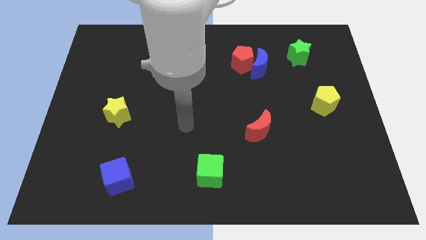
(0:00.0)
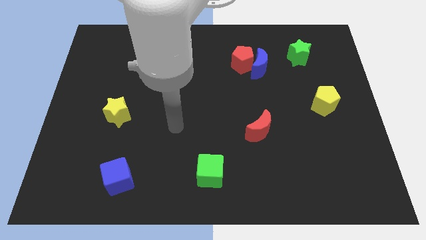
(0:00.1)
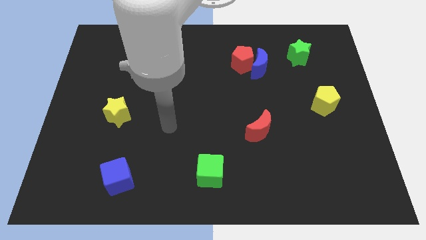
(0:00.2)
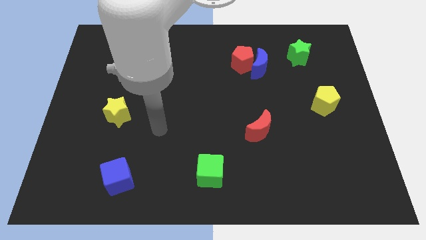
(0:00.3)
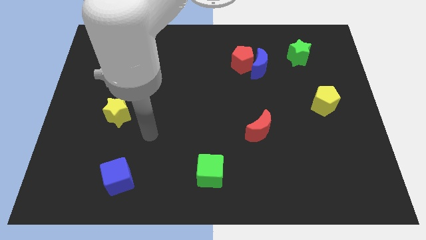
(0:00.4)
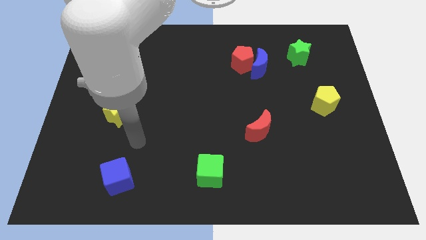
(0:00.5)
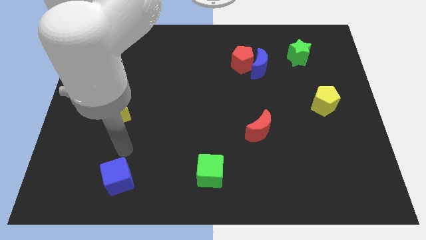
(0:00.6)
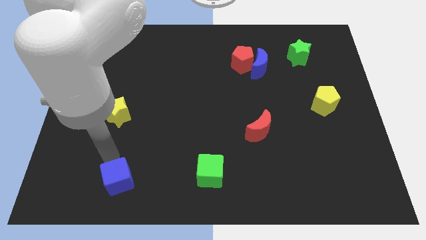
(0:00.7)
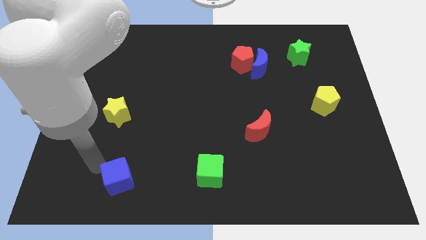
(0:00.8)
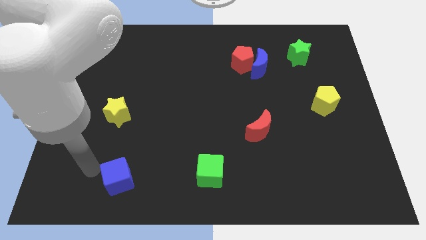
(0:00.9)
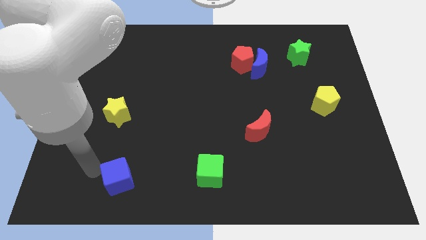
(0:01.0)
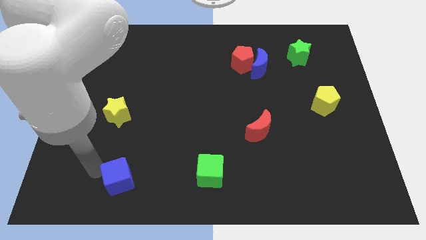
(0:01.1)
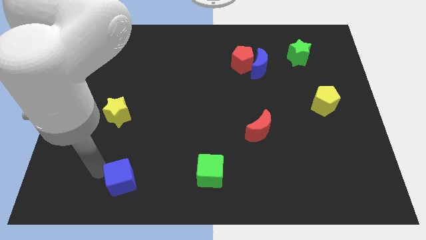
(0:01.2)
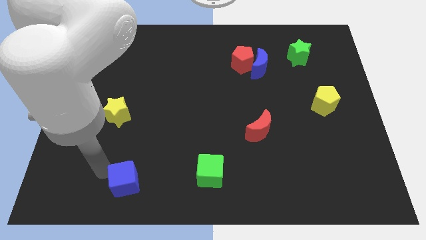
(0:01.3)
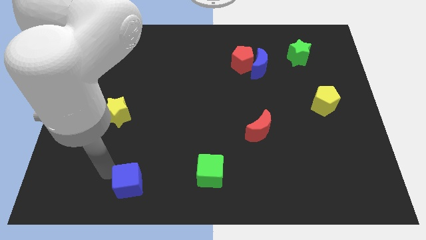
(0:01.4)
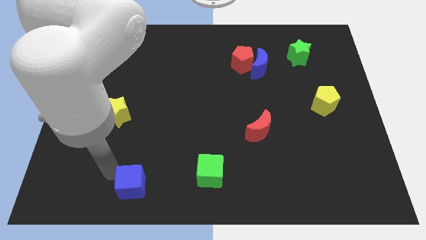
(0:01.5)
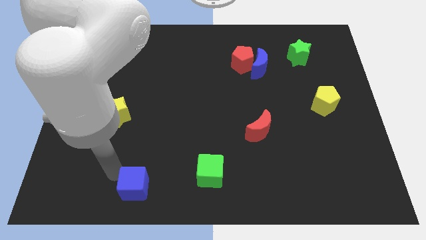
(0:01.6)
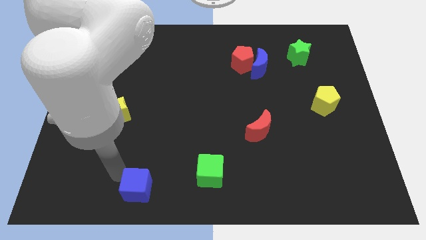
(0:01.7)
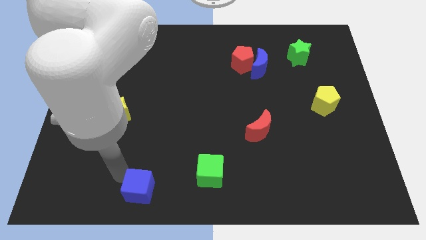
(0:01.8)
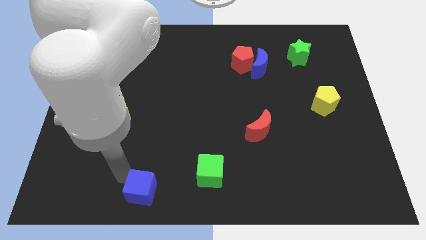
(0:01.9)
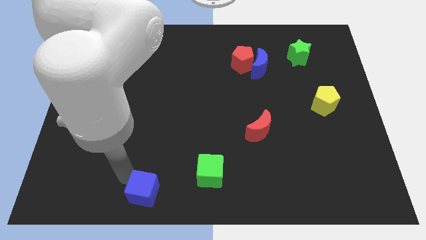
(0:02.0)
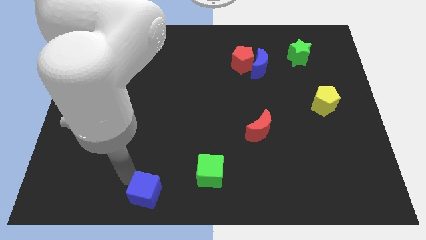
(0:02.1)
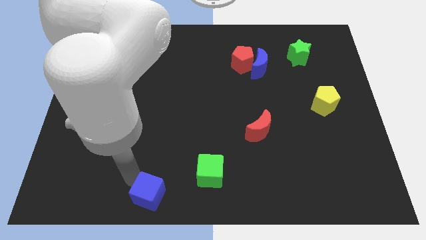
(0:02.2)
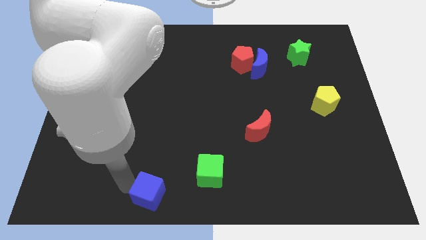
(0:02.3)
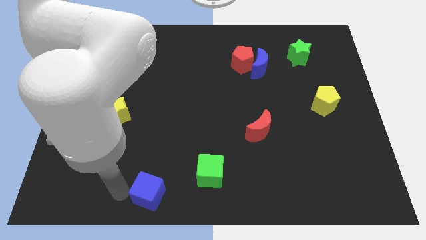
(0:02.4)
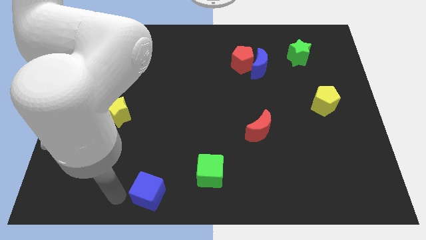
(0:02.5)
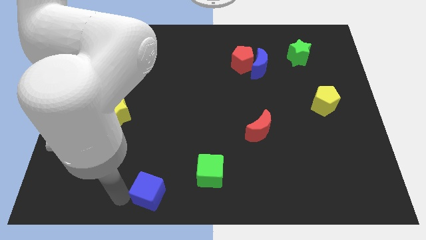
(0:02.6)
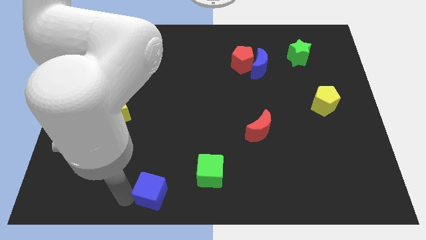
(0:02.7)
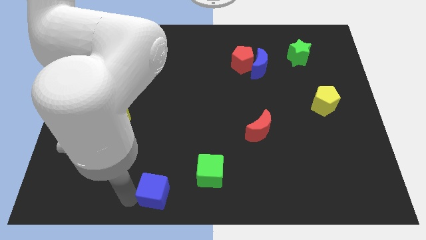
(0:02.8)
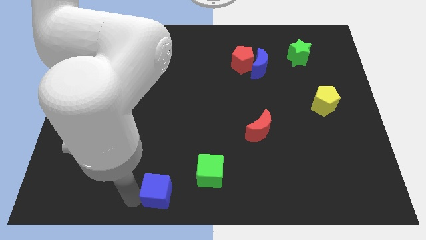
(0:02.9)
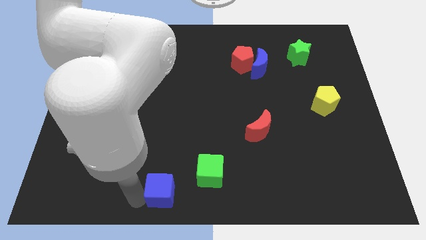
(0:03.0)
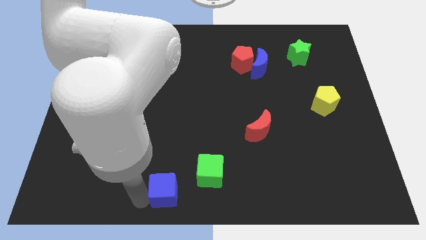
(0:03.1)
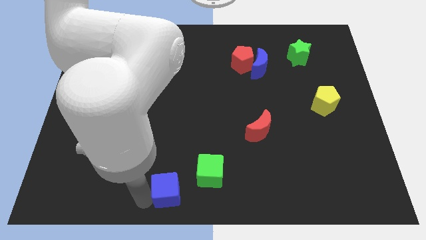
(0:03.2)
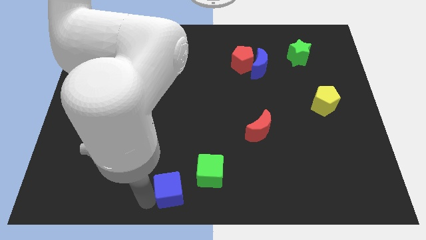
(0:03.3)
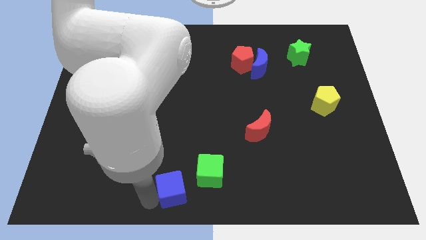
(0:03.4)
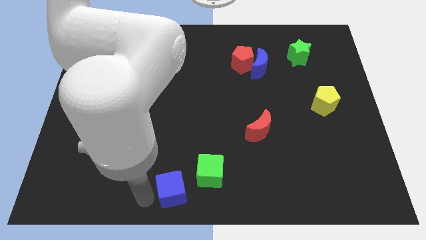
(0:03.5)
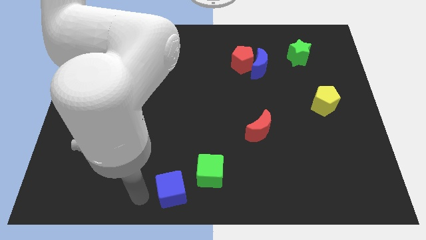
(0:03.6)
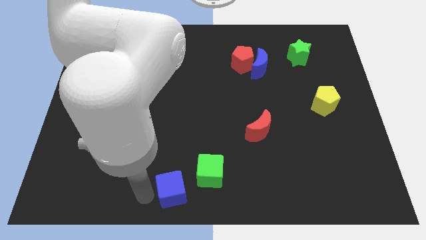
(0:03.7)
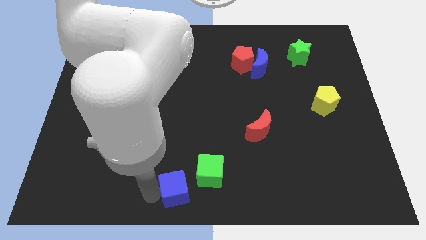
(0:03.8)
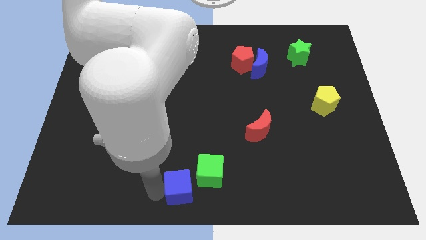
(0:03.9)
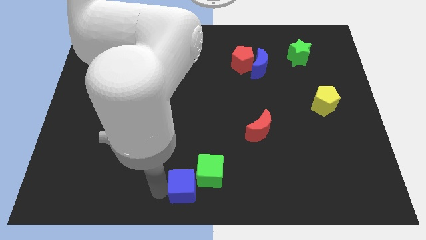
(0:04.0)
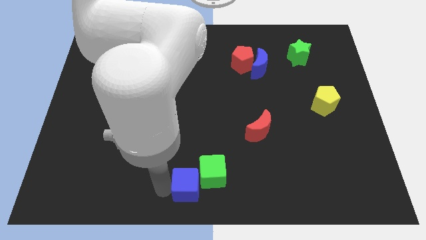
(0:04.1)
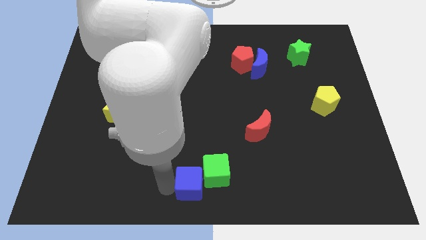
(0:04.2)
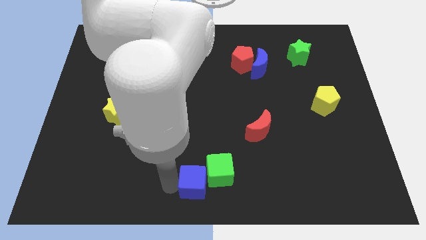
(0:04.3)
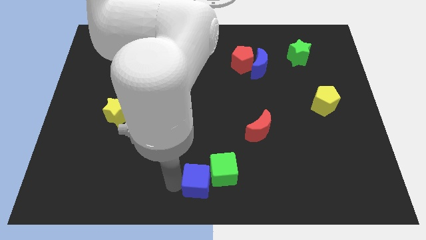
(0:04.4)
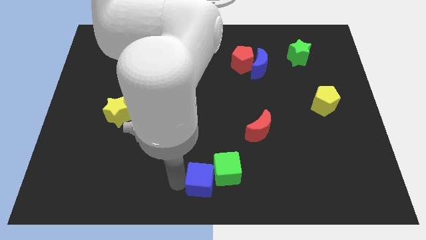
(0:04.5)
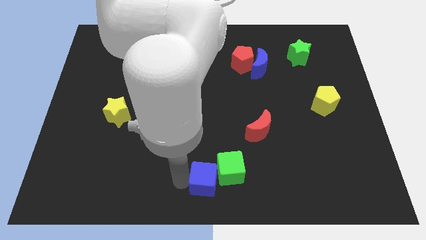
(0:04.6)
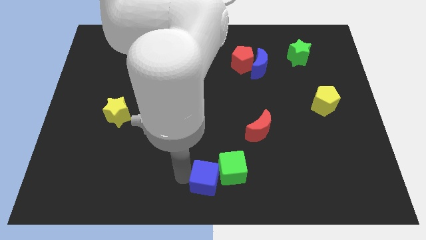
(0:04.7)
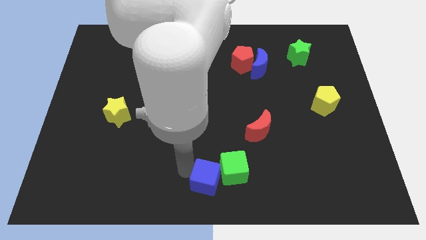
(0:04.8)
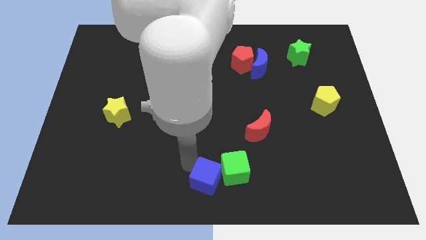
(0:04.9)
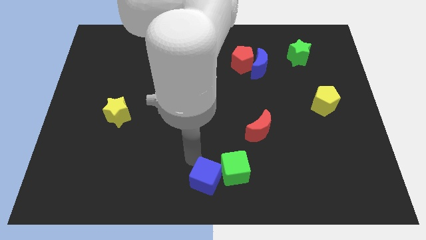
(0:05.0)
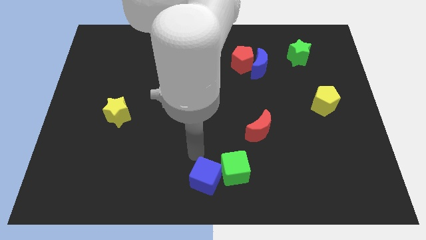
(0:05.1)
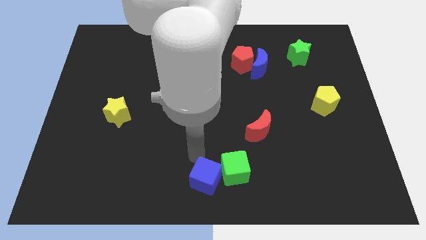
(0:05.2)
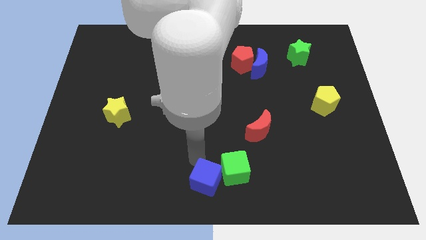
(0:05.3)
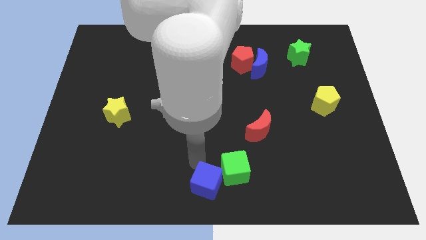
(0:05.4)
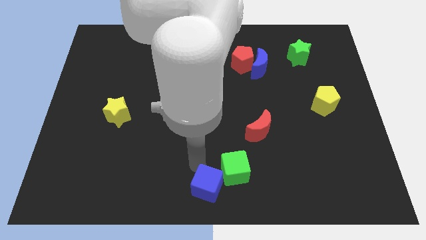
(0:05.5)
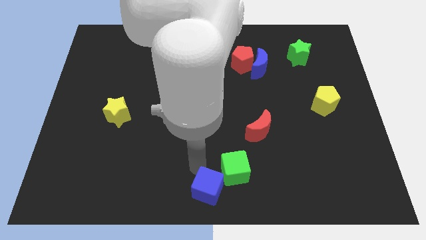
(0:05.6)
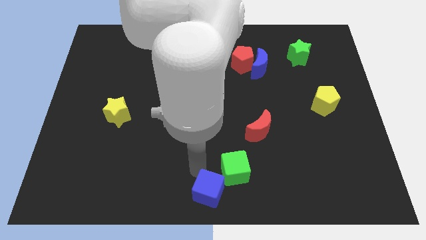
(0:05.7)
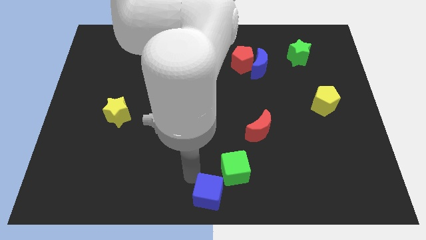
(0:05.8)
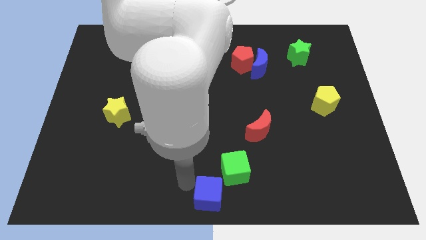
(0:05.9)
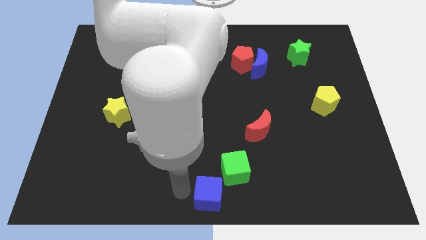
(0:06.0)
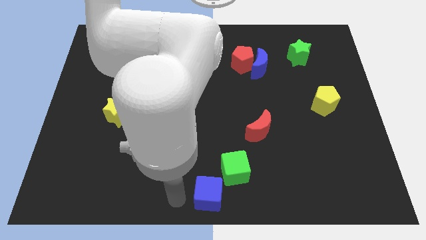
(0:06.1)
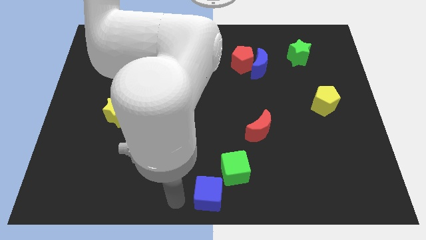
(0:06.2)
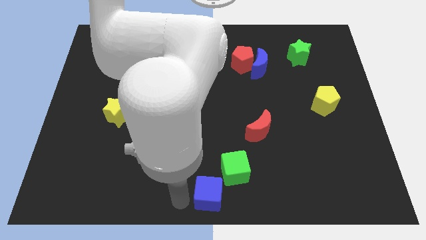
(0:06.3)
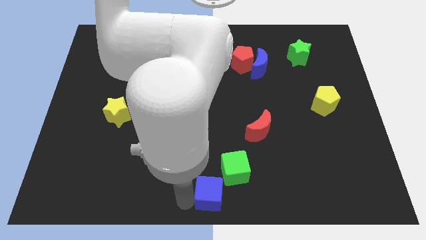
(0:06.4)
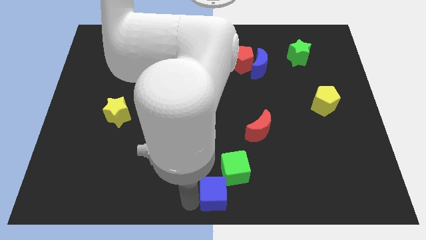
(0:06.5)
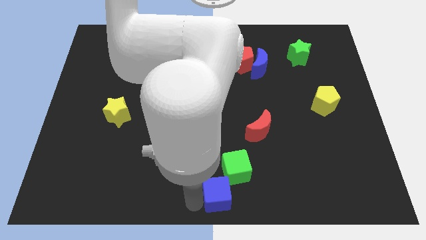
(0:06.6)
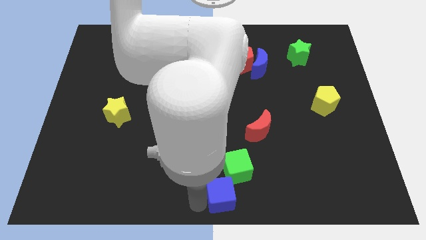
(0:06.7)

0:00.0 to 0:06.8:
move the blue cube right

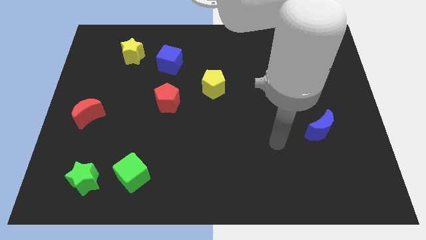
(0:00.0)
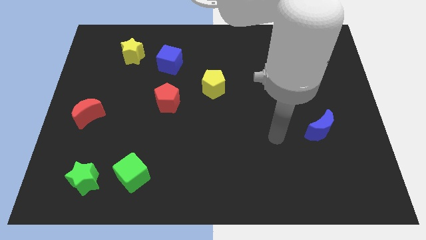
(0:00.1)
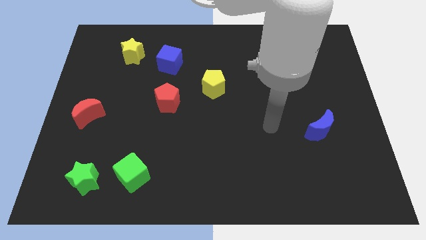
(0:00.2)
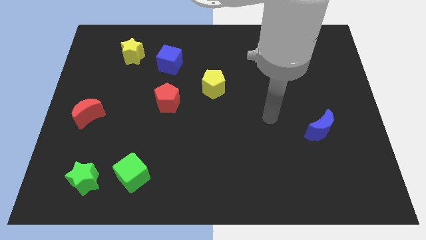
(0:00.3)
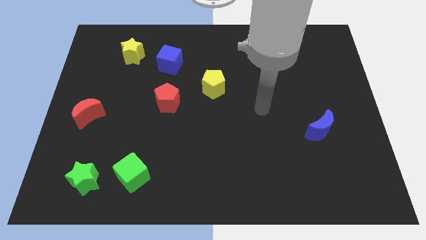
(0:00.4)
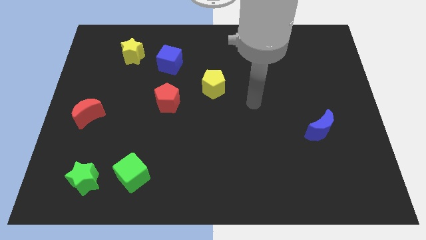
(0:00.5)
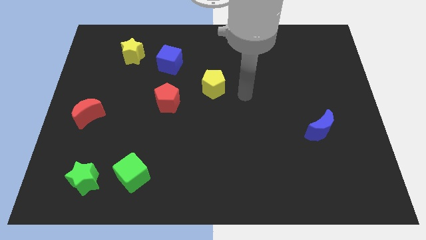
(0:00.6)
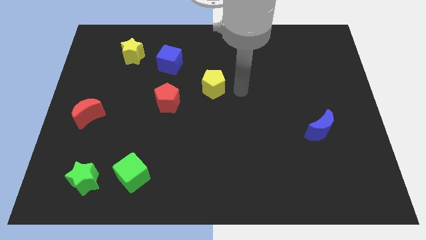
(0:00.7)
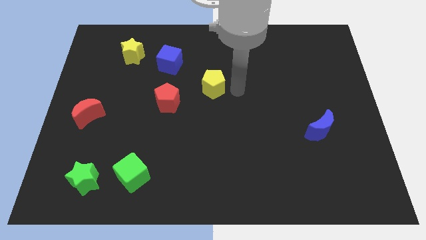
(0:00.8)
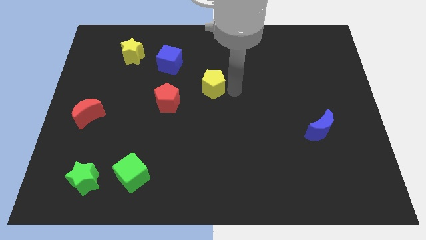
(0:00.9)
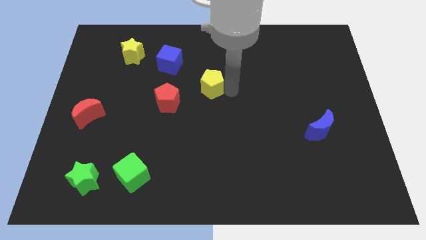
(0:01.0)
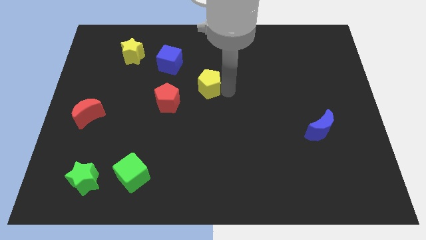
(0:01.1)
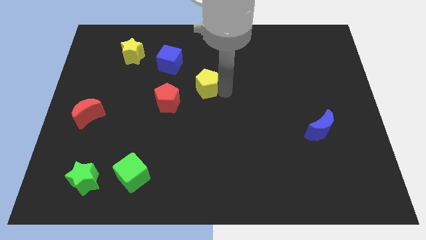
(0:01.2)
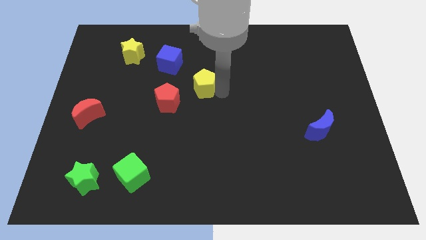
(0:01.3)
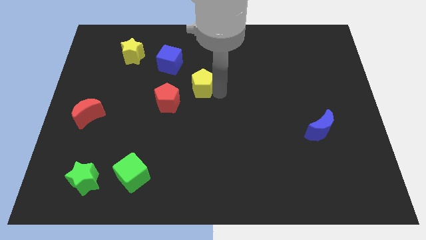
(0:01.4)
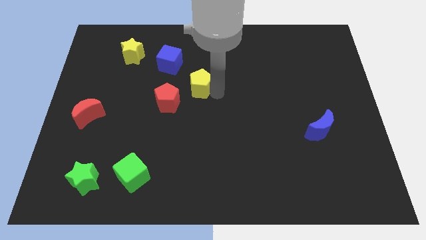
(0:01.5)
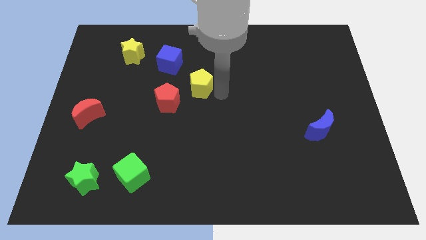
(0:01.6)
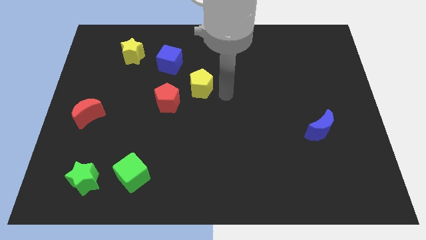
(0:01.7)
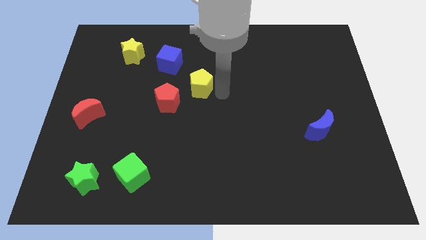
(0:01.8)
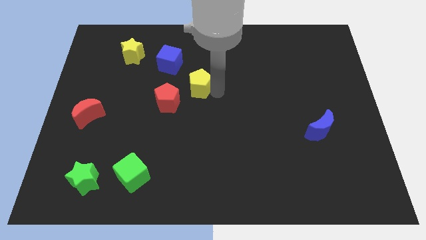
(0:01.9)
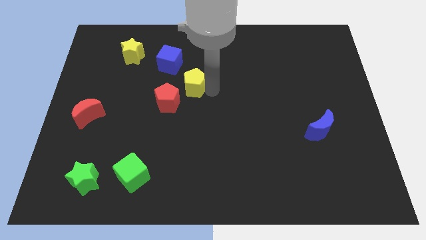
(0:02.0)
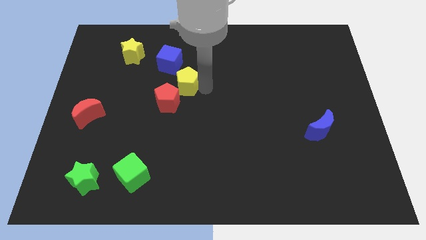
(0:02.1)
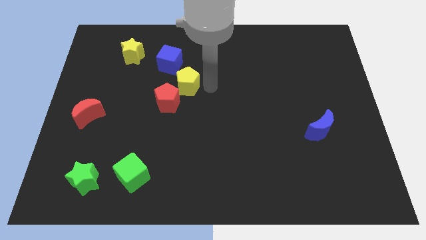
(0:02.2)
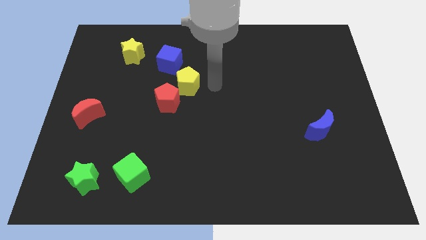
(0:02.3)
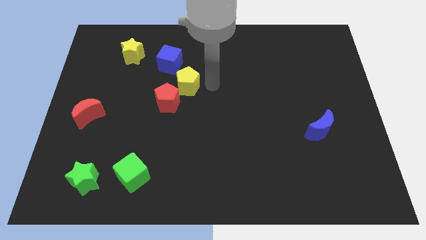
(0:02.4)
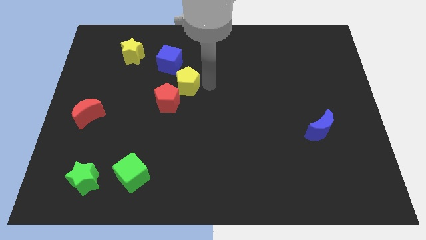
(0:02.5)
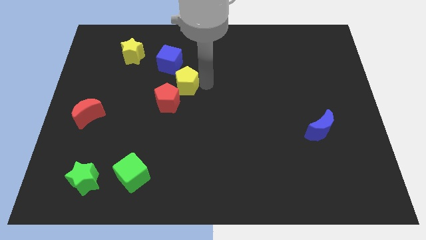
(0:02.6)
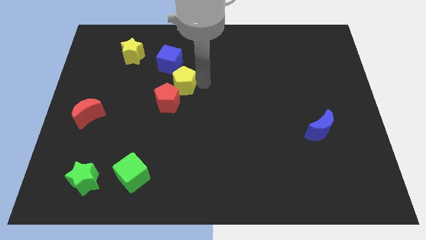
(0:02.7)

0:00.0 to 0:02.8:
slightly slide the yellow pentagon left
